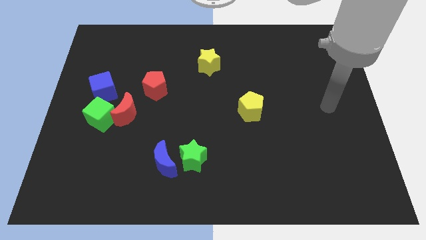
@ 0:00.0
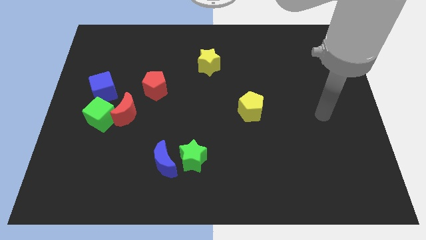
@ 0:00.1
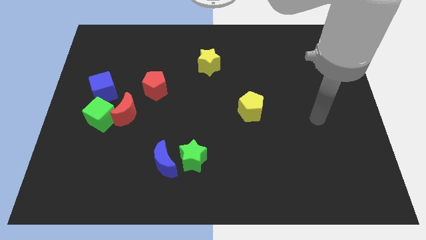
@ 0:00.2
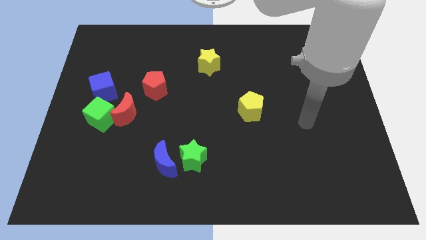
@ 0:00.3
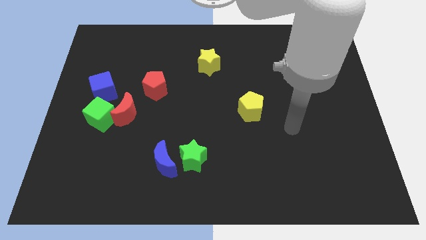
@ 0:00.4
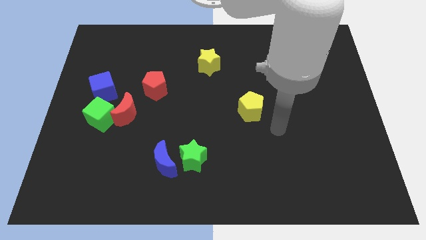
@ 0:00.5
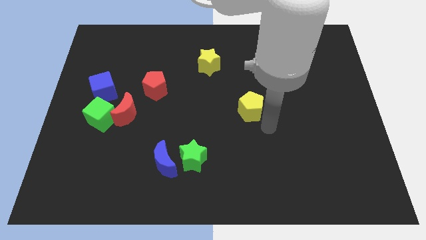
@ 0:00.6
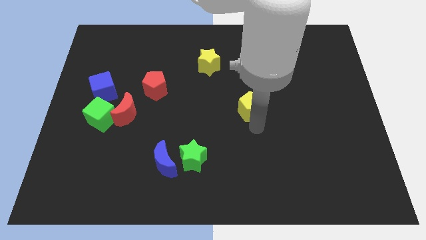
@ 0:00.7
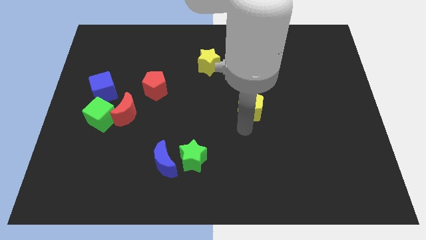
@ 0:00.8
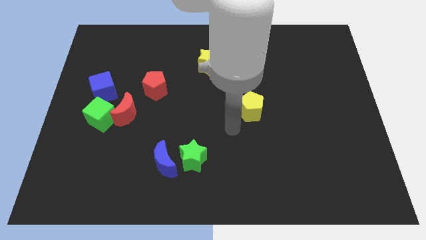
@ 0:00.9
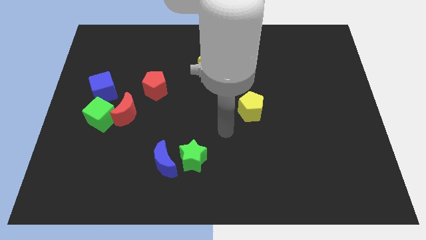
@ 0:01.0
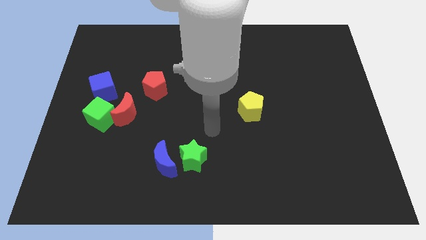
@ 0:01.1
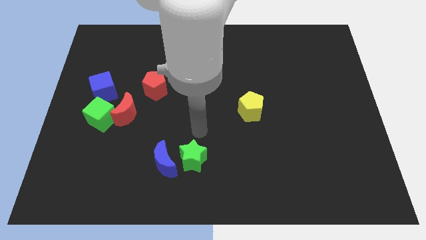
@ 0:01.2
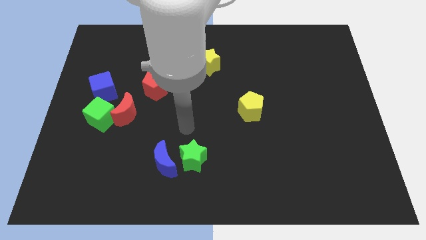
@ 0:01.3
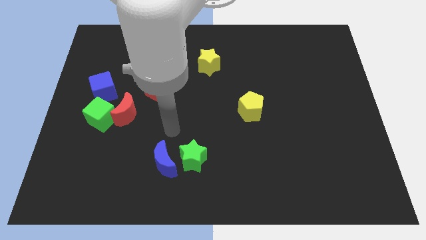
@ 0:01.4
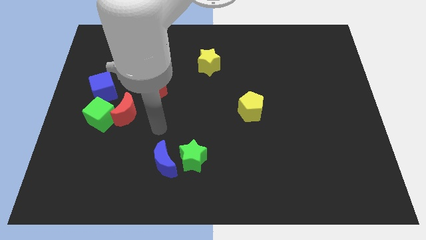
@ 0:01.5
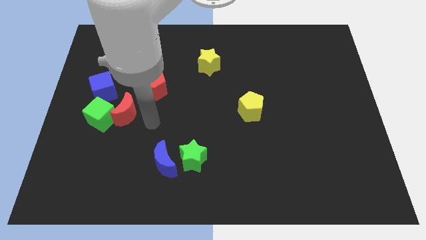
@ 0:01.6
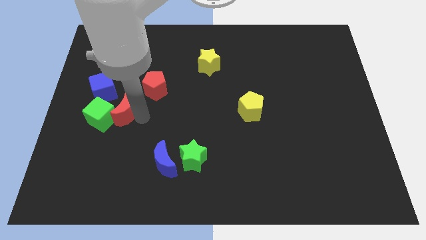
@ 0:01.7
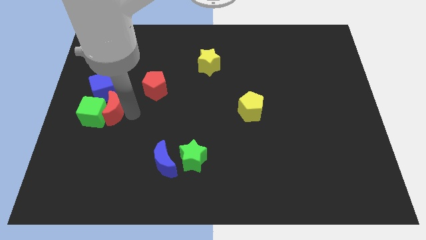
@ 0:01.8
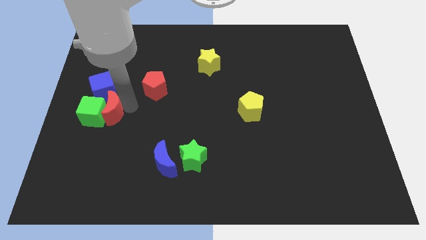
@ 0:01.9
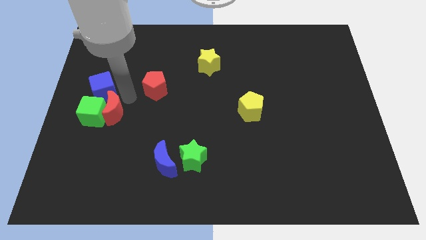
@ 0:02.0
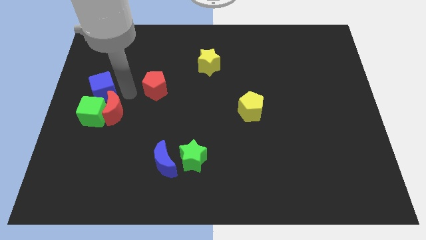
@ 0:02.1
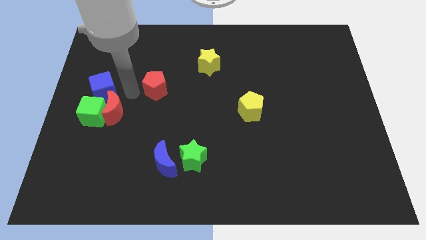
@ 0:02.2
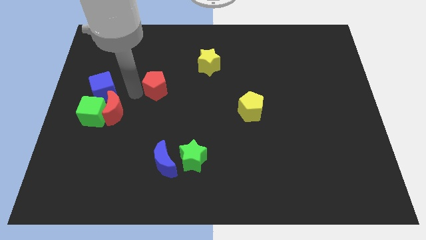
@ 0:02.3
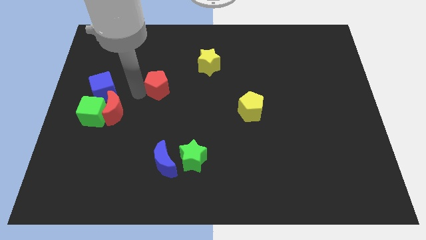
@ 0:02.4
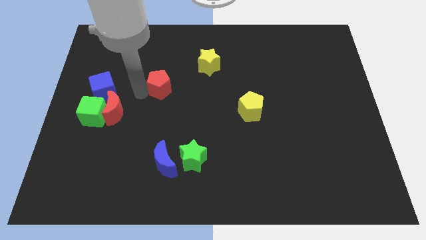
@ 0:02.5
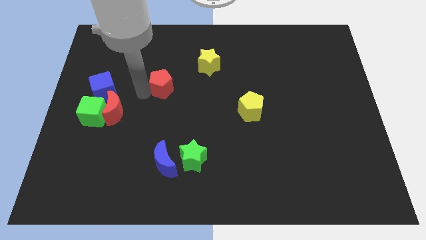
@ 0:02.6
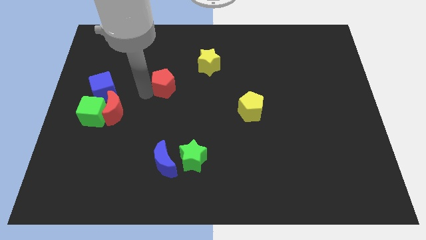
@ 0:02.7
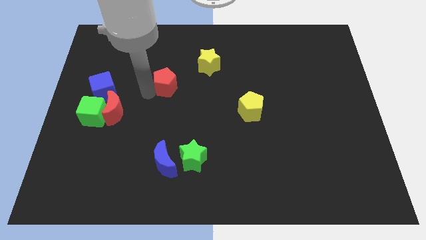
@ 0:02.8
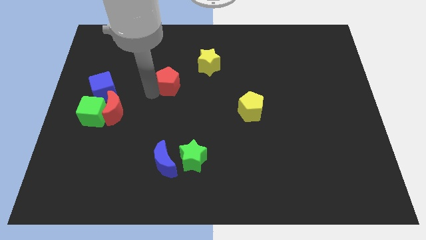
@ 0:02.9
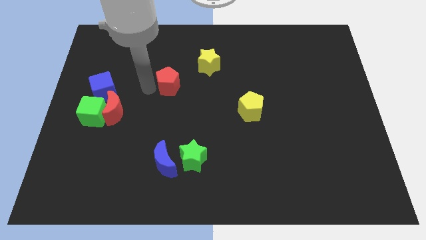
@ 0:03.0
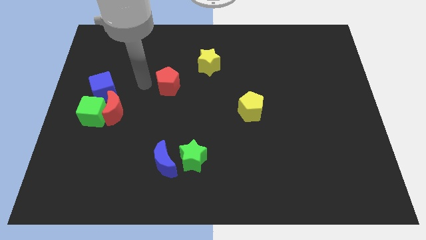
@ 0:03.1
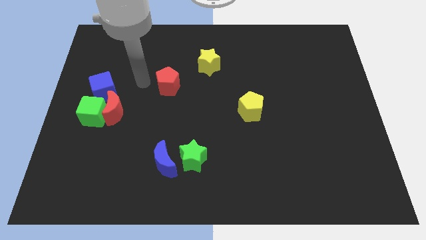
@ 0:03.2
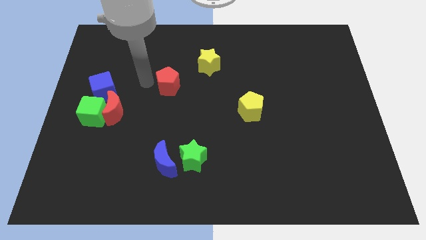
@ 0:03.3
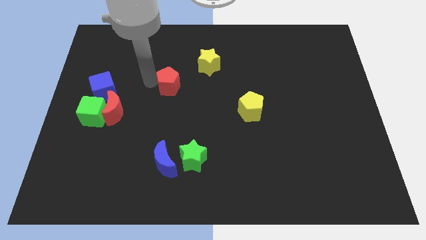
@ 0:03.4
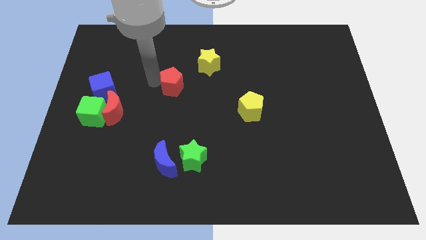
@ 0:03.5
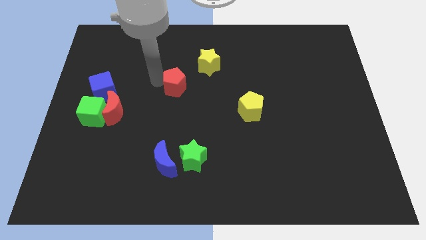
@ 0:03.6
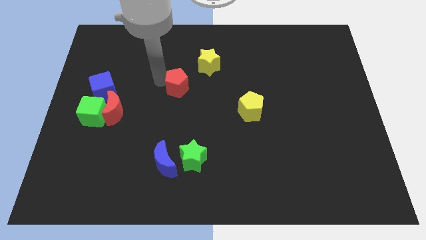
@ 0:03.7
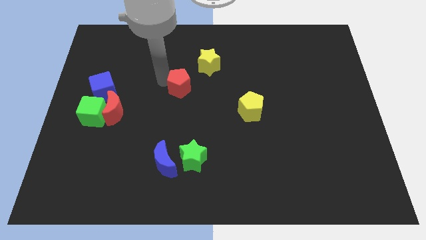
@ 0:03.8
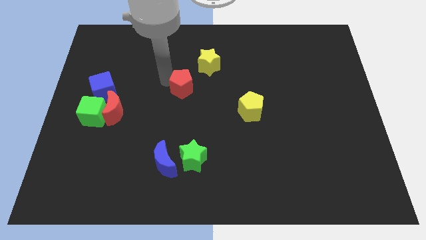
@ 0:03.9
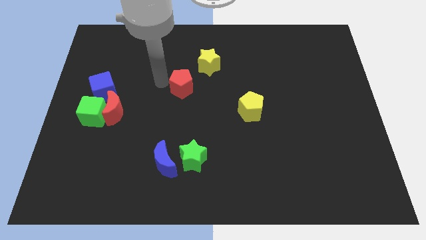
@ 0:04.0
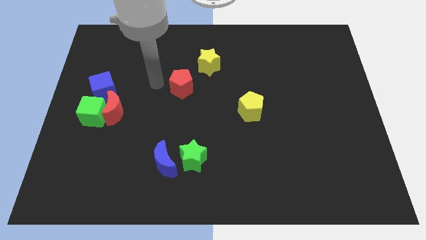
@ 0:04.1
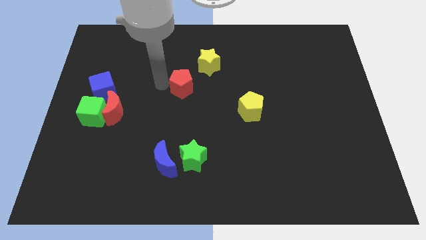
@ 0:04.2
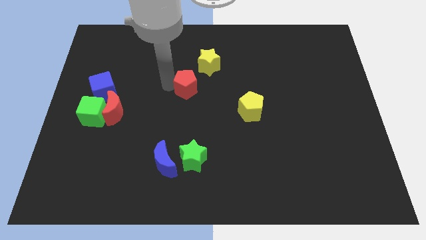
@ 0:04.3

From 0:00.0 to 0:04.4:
slightly push the red pentagon to the right

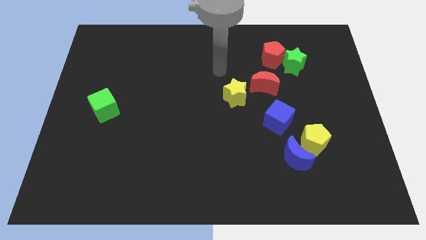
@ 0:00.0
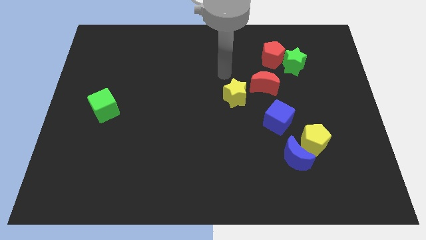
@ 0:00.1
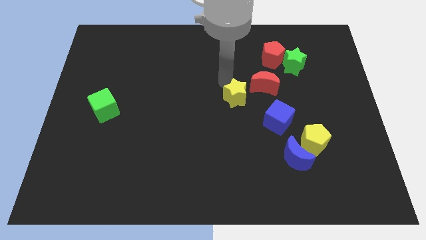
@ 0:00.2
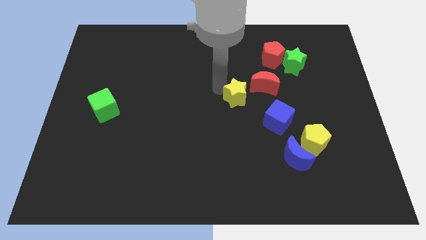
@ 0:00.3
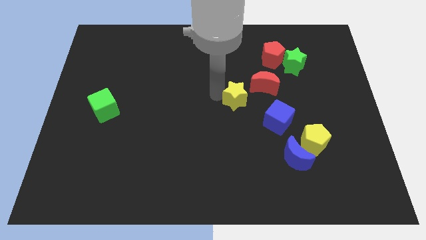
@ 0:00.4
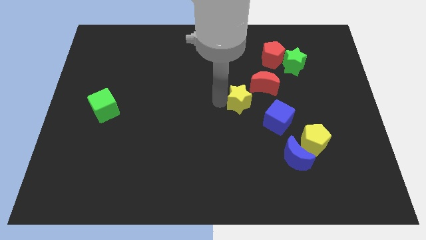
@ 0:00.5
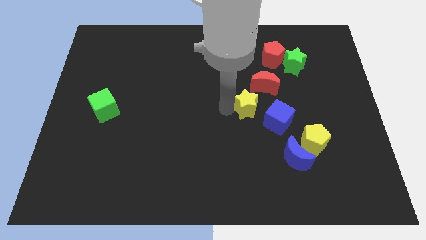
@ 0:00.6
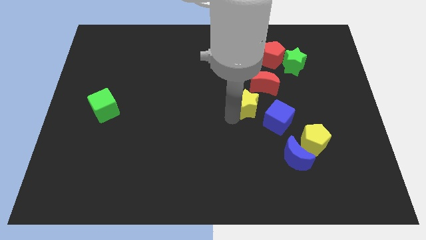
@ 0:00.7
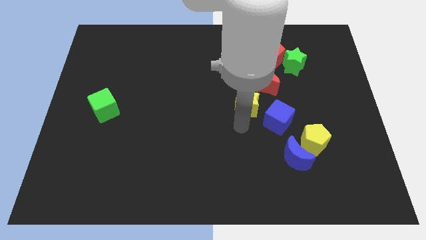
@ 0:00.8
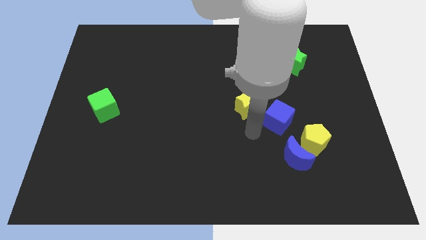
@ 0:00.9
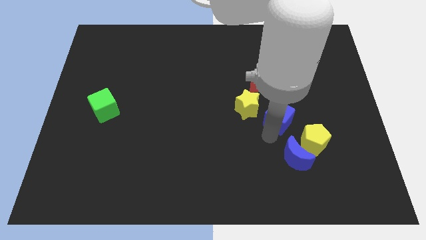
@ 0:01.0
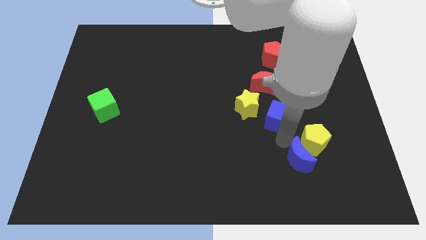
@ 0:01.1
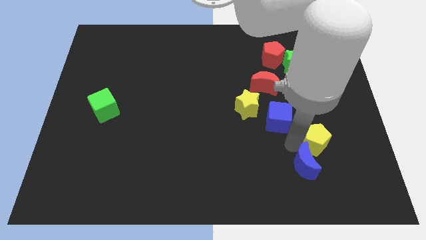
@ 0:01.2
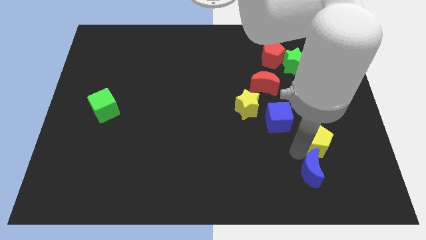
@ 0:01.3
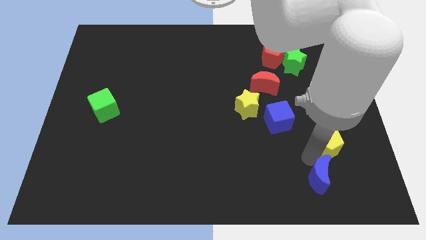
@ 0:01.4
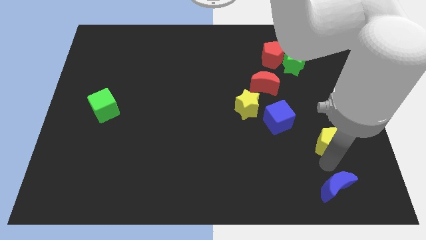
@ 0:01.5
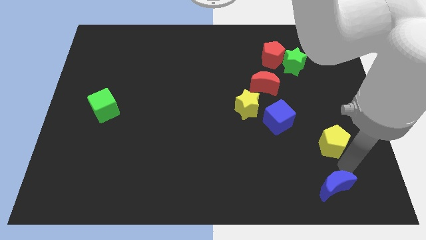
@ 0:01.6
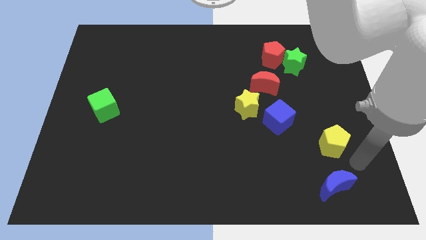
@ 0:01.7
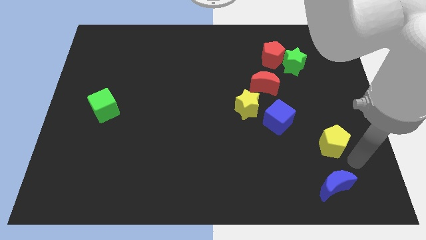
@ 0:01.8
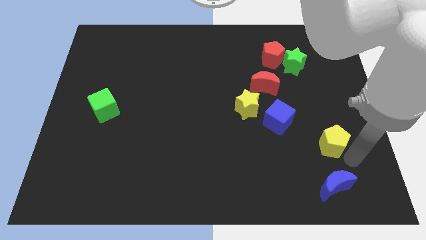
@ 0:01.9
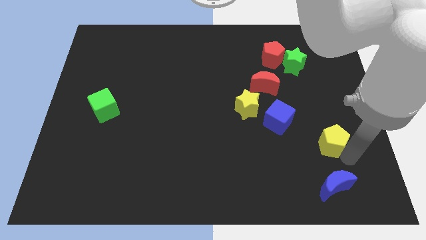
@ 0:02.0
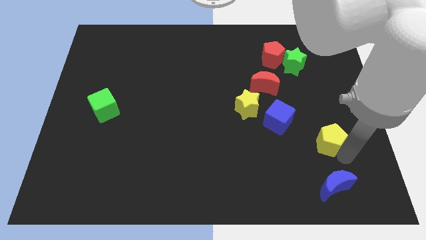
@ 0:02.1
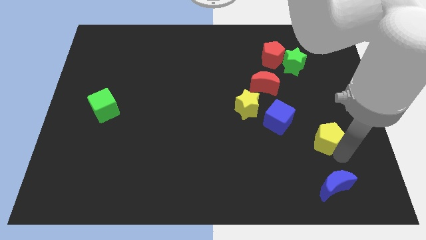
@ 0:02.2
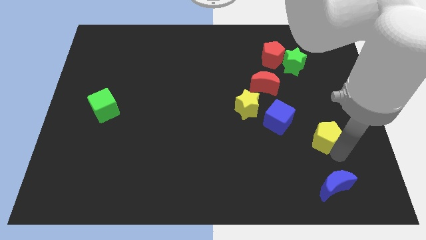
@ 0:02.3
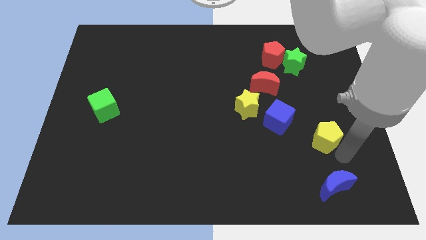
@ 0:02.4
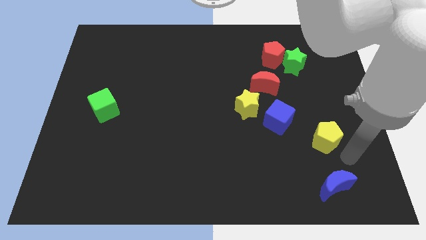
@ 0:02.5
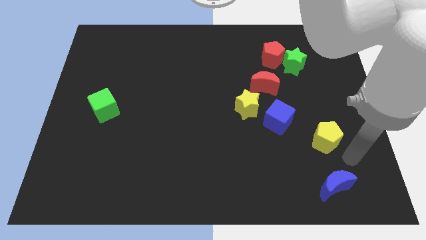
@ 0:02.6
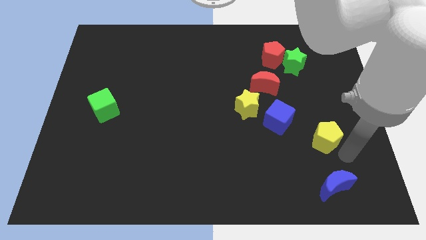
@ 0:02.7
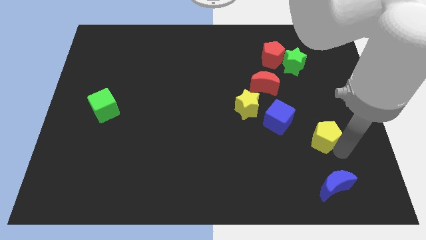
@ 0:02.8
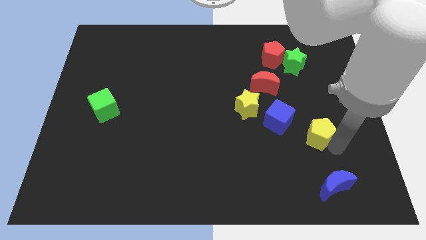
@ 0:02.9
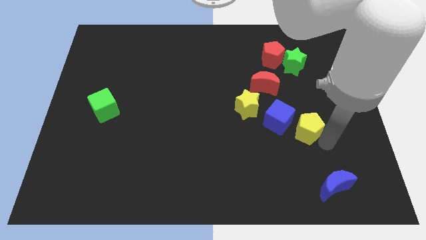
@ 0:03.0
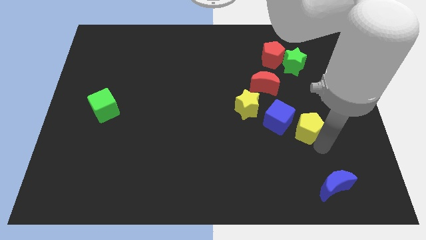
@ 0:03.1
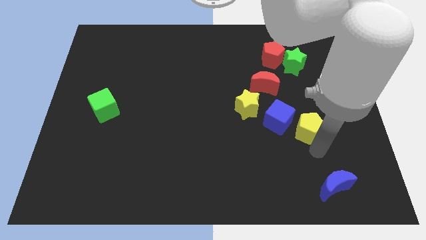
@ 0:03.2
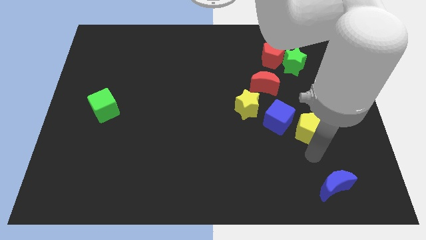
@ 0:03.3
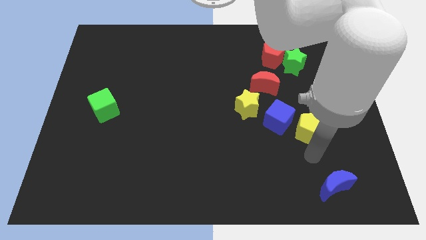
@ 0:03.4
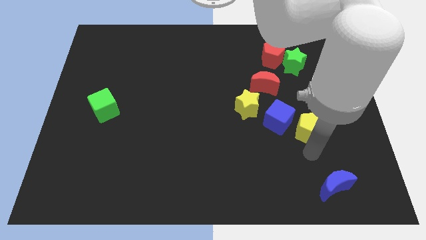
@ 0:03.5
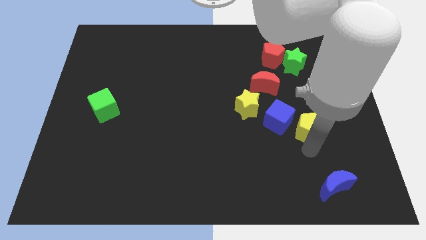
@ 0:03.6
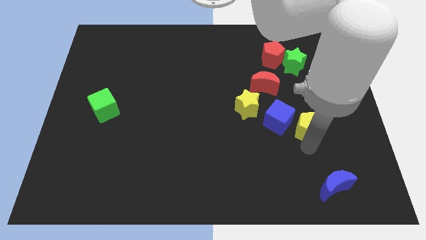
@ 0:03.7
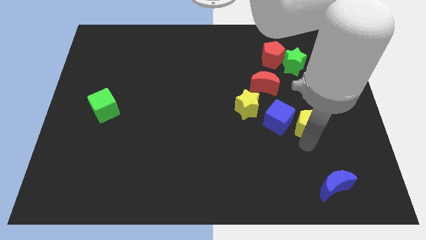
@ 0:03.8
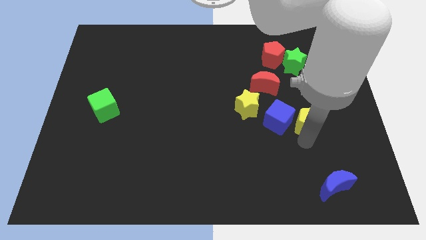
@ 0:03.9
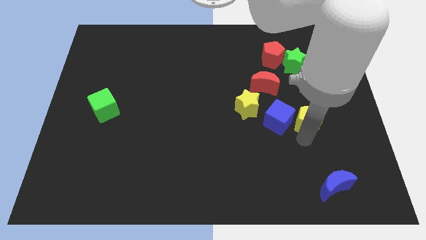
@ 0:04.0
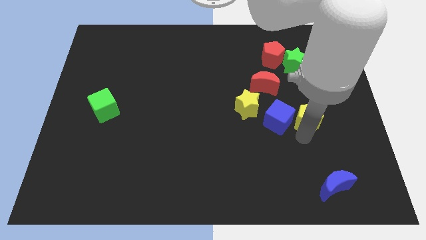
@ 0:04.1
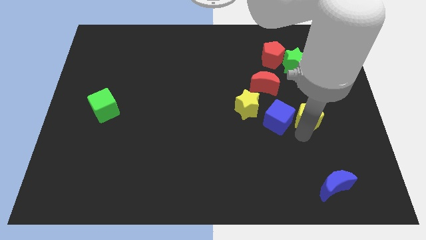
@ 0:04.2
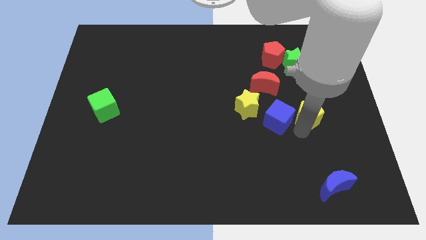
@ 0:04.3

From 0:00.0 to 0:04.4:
move the yellow pentagon up a little bit
